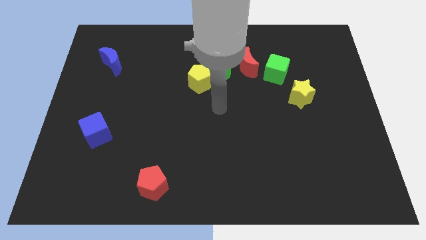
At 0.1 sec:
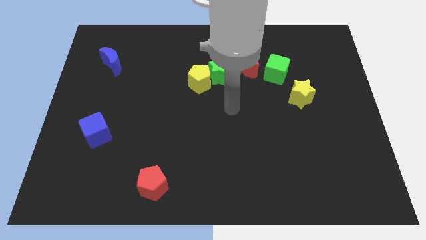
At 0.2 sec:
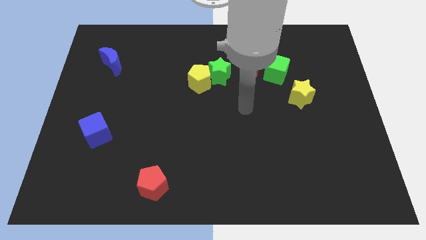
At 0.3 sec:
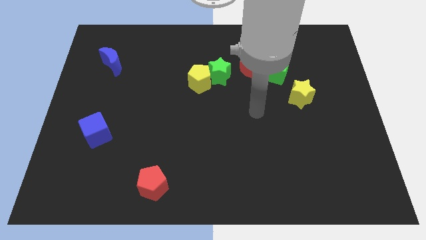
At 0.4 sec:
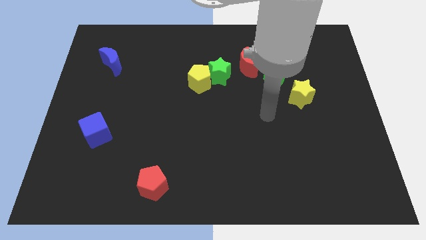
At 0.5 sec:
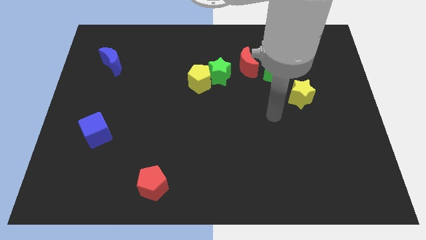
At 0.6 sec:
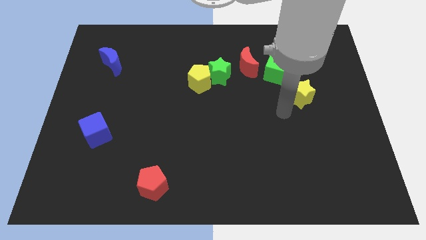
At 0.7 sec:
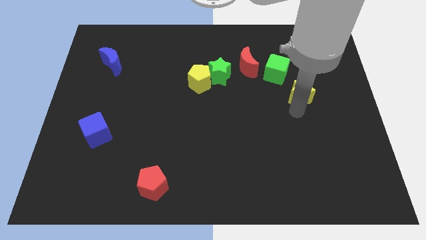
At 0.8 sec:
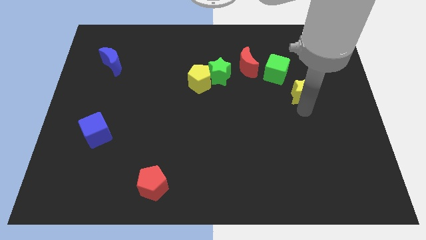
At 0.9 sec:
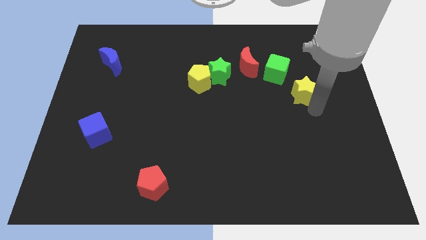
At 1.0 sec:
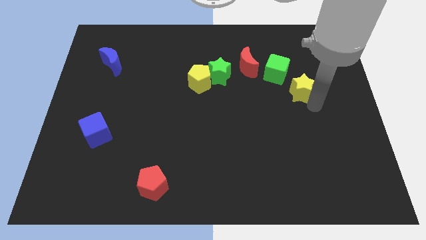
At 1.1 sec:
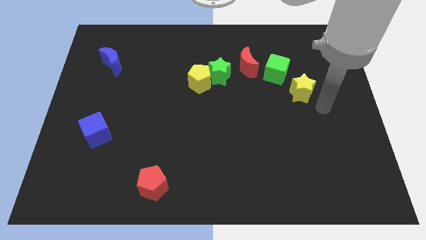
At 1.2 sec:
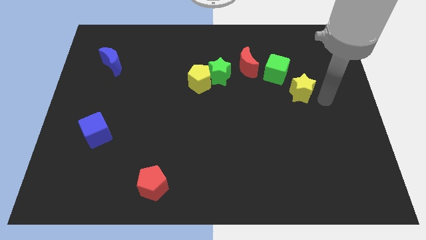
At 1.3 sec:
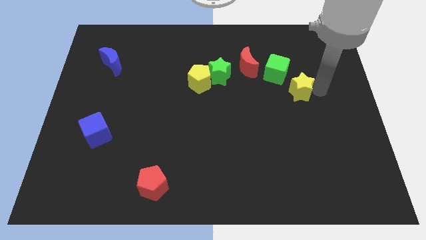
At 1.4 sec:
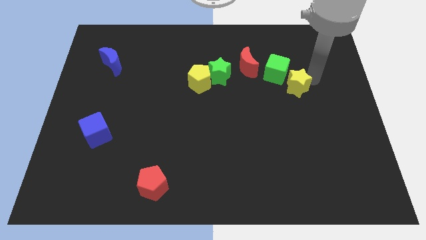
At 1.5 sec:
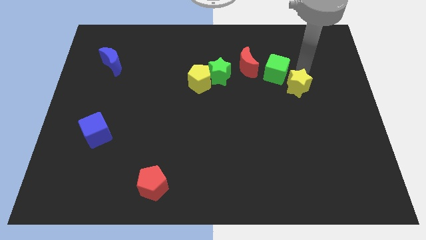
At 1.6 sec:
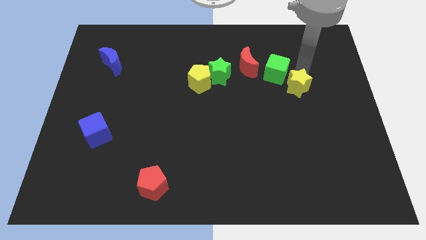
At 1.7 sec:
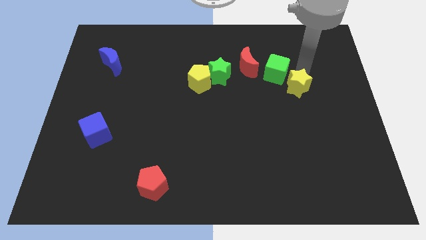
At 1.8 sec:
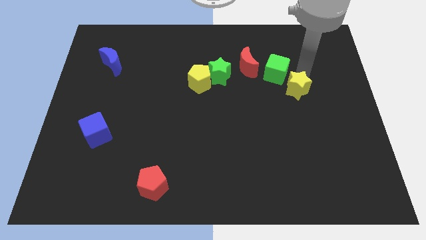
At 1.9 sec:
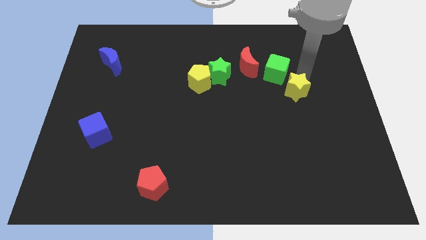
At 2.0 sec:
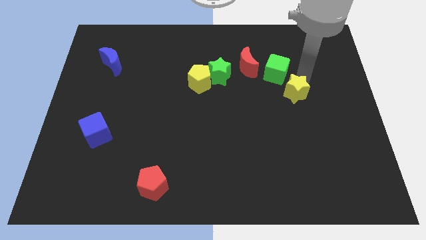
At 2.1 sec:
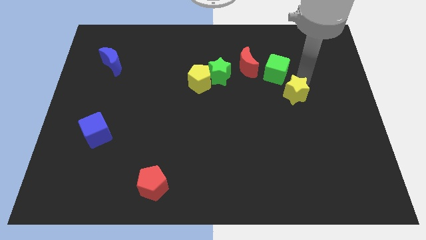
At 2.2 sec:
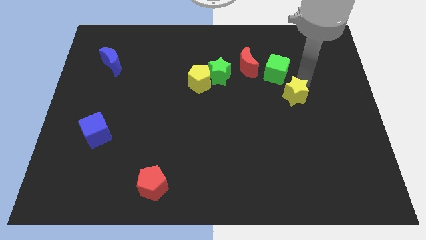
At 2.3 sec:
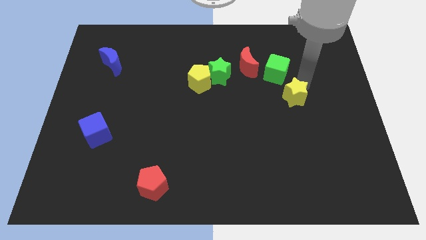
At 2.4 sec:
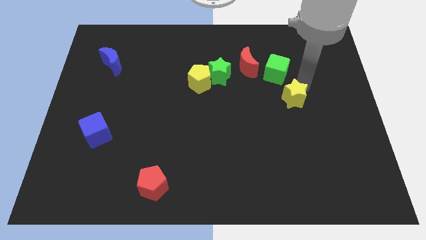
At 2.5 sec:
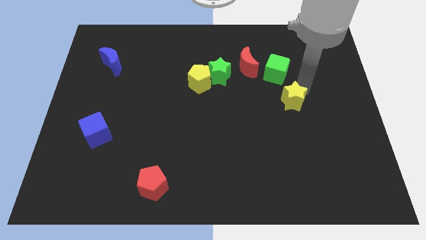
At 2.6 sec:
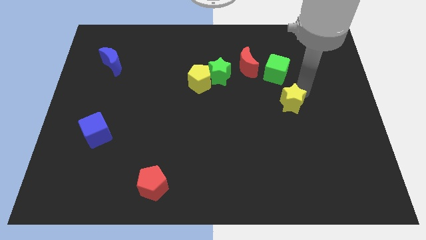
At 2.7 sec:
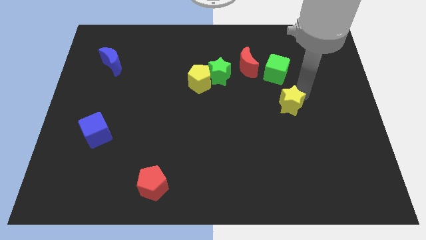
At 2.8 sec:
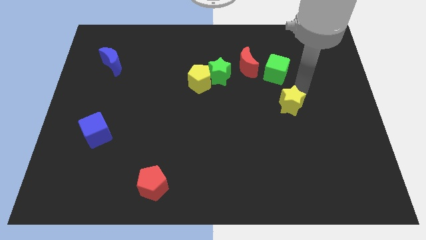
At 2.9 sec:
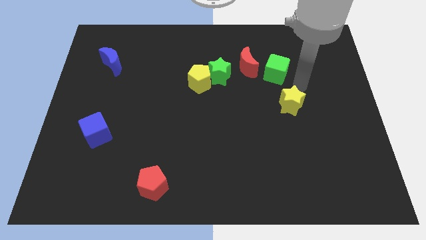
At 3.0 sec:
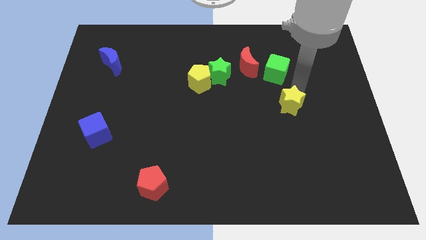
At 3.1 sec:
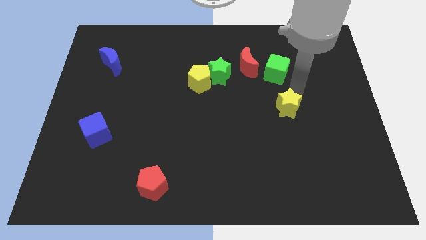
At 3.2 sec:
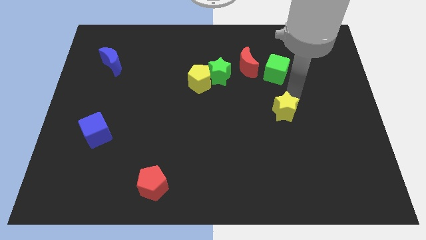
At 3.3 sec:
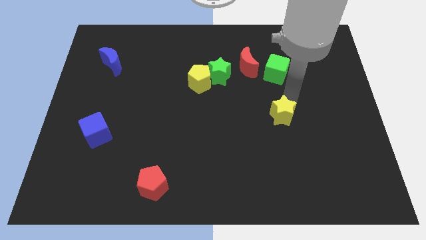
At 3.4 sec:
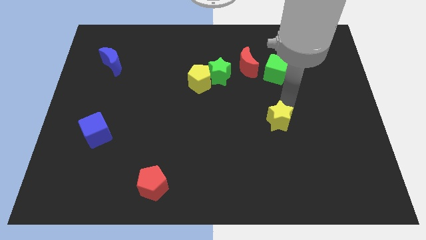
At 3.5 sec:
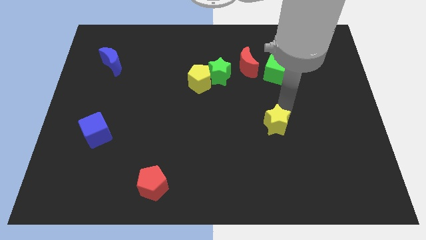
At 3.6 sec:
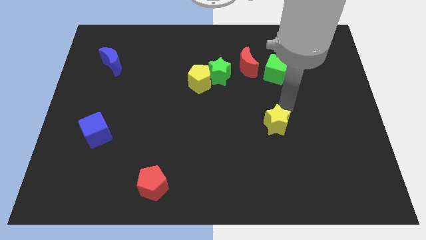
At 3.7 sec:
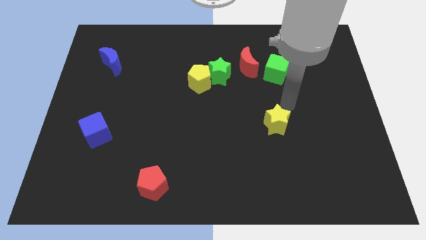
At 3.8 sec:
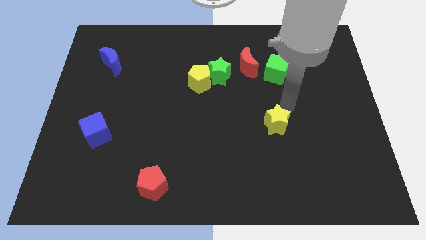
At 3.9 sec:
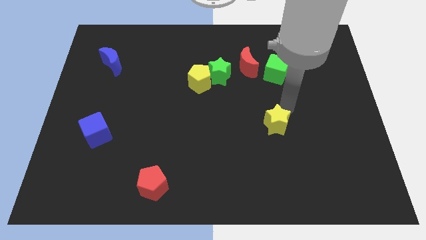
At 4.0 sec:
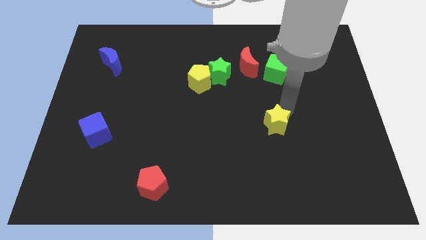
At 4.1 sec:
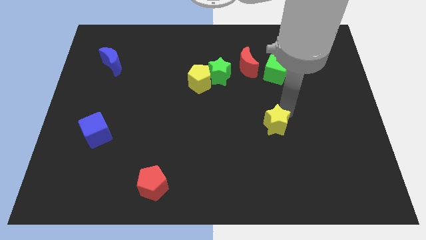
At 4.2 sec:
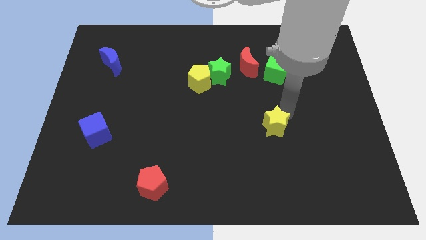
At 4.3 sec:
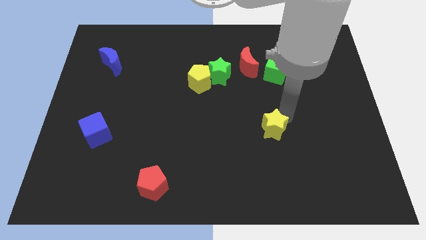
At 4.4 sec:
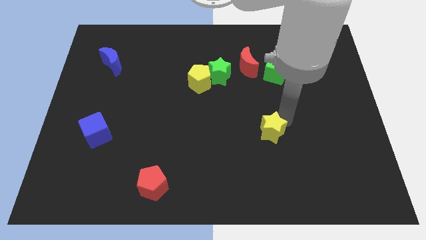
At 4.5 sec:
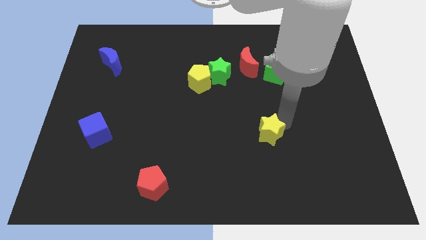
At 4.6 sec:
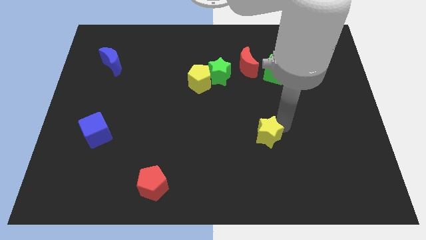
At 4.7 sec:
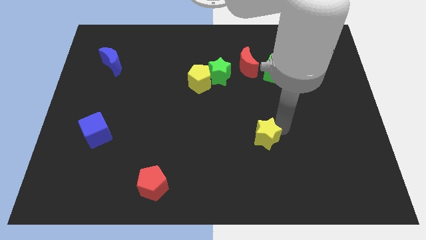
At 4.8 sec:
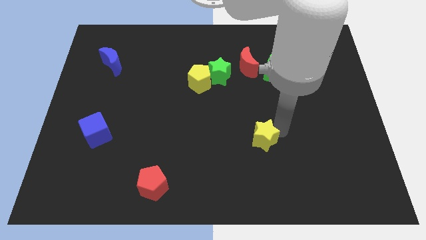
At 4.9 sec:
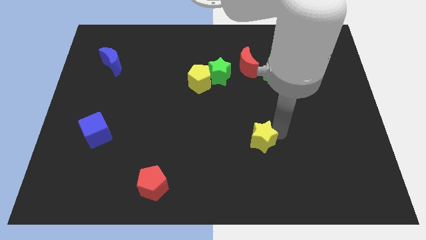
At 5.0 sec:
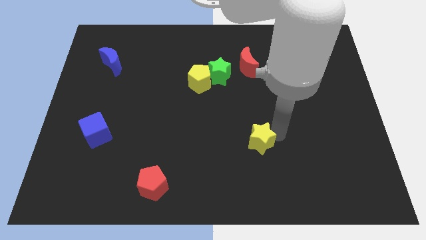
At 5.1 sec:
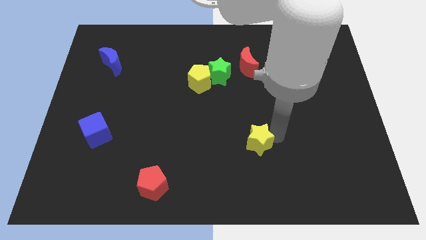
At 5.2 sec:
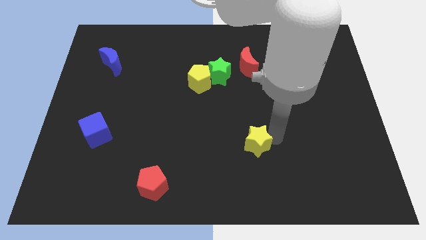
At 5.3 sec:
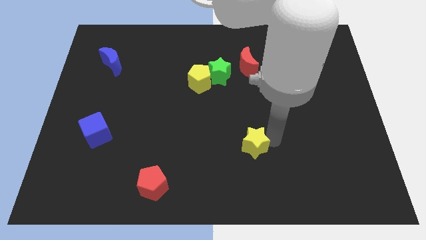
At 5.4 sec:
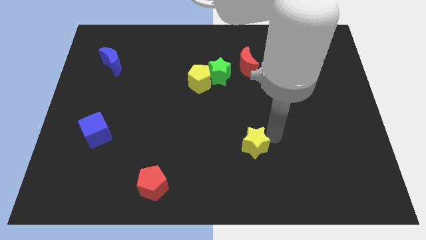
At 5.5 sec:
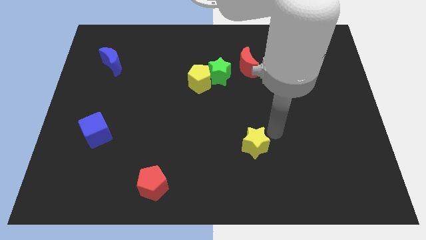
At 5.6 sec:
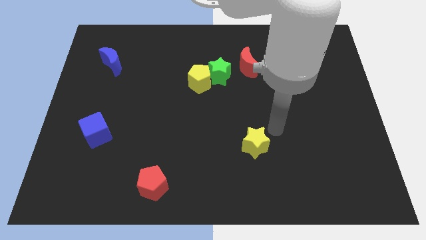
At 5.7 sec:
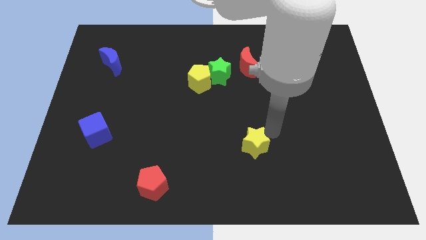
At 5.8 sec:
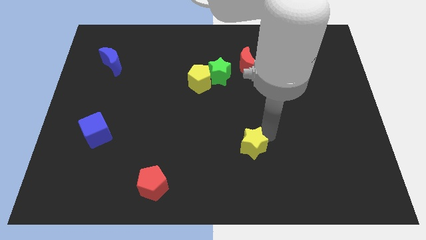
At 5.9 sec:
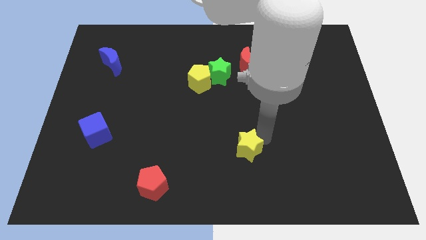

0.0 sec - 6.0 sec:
move the yellow star downwards and left diagonally

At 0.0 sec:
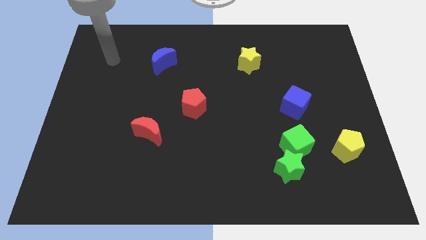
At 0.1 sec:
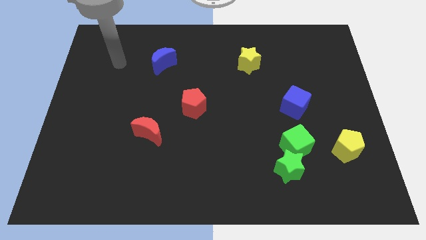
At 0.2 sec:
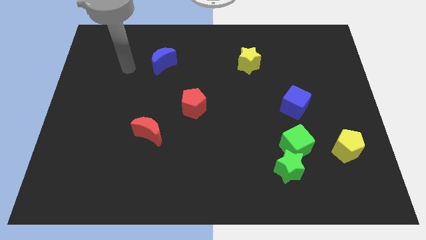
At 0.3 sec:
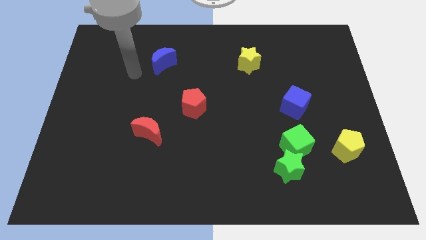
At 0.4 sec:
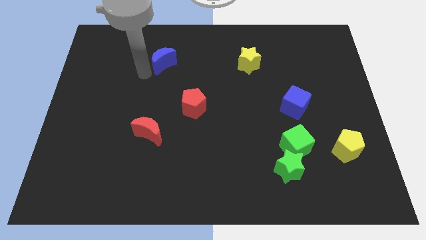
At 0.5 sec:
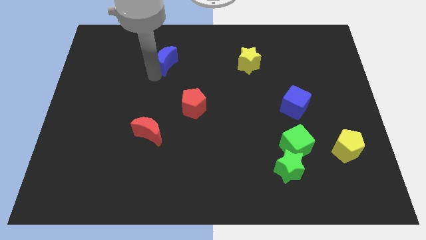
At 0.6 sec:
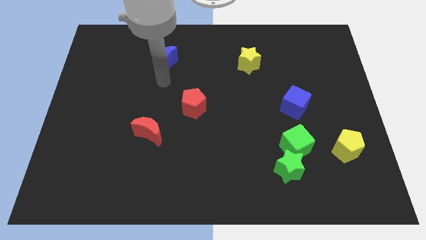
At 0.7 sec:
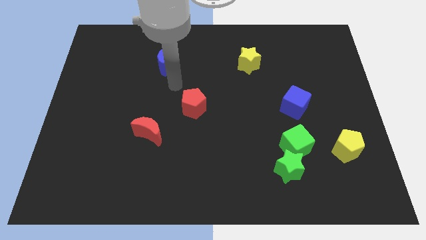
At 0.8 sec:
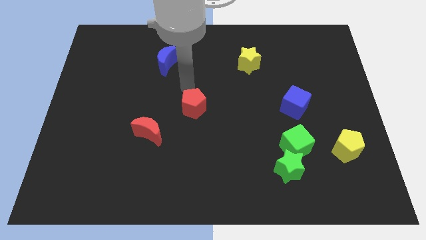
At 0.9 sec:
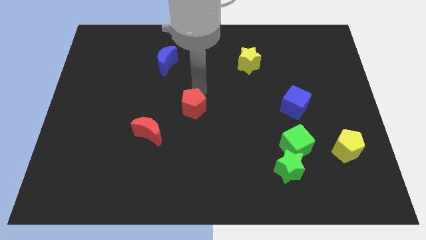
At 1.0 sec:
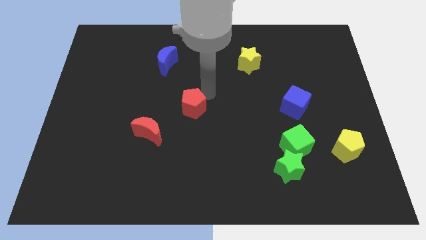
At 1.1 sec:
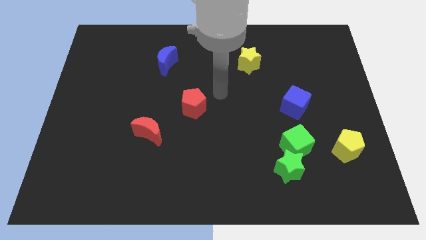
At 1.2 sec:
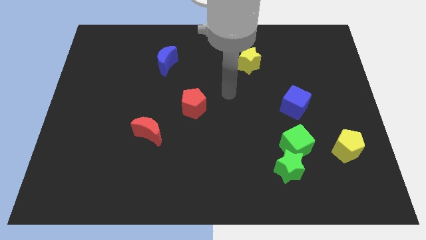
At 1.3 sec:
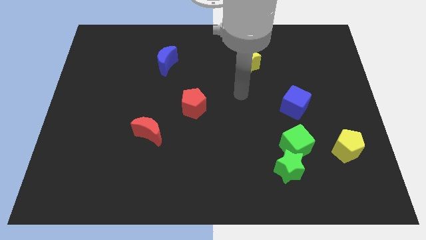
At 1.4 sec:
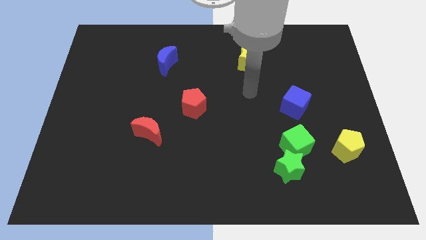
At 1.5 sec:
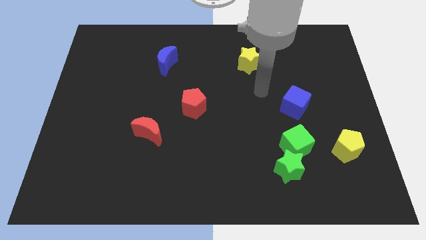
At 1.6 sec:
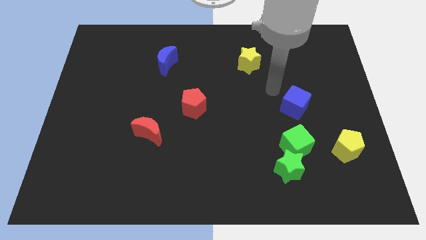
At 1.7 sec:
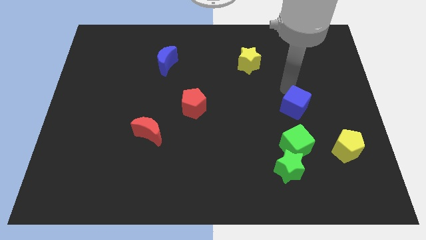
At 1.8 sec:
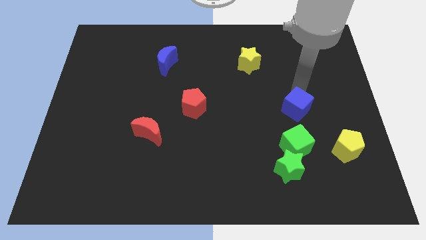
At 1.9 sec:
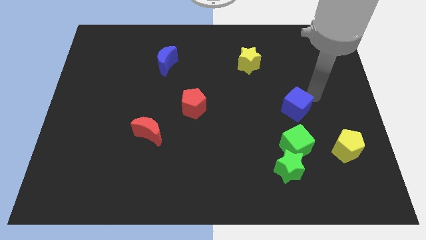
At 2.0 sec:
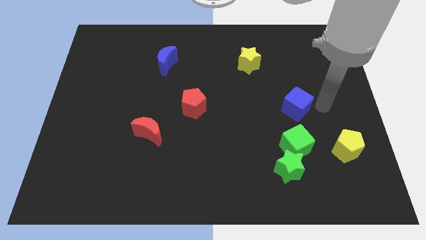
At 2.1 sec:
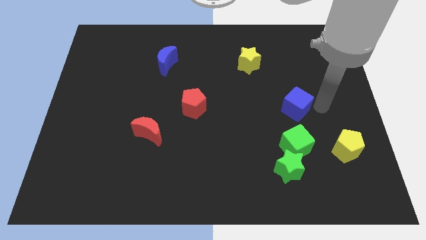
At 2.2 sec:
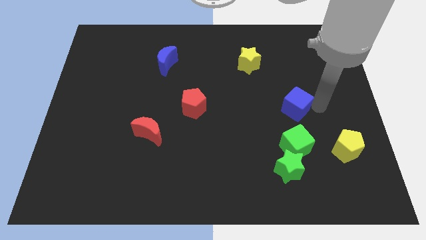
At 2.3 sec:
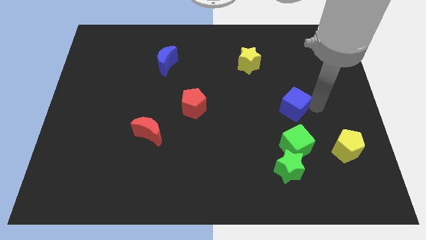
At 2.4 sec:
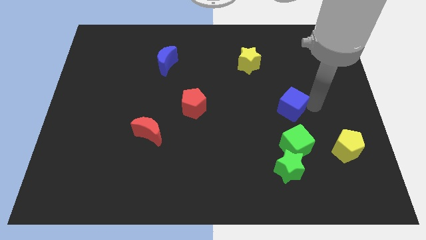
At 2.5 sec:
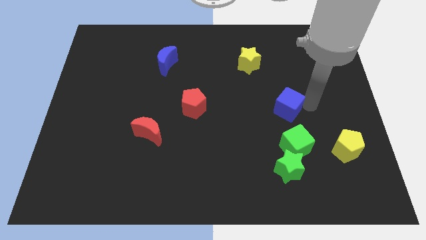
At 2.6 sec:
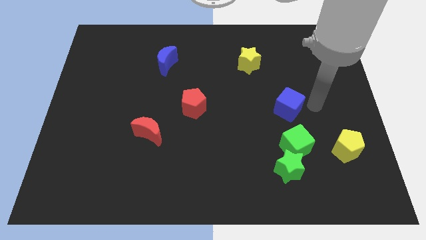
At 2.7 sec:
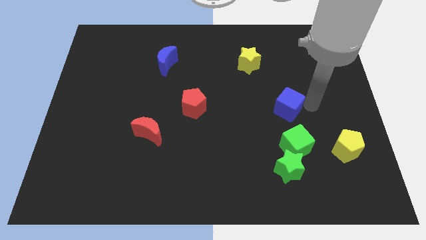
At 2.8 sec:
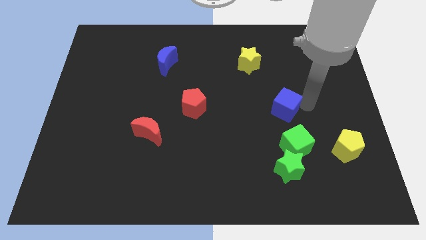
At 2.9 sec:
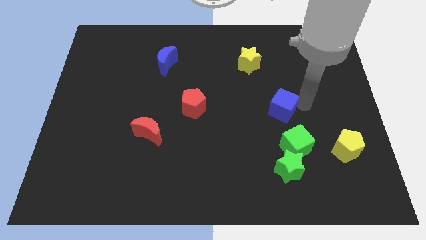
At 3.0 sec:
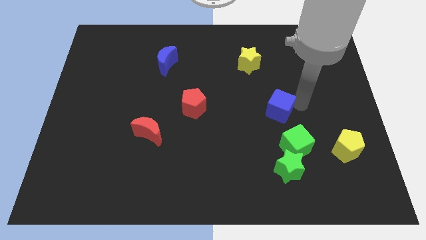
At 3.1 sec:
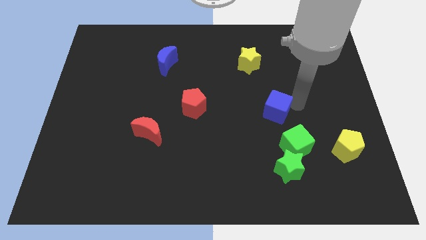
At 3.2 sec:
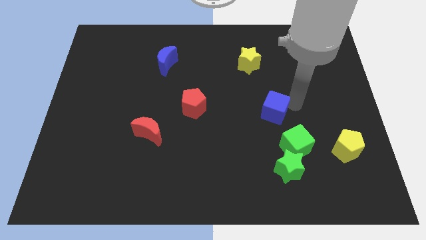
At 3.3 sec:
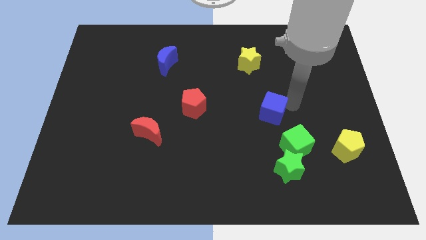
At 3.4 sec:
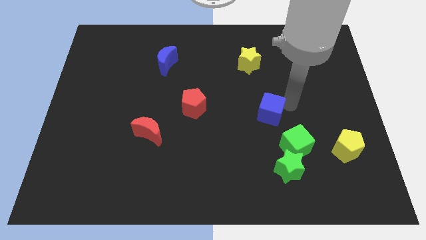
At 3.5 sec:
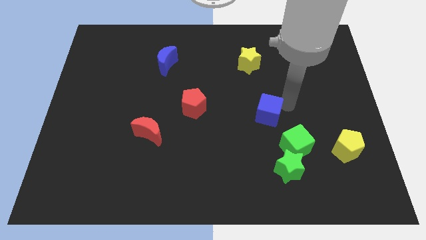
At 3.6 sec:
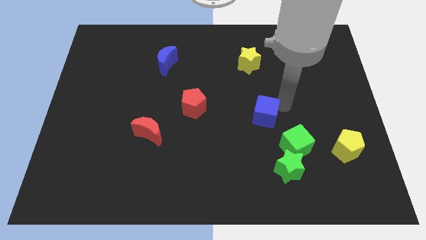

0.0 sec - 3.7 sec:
move the blue cube a little bit left
